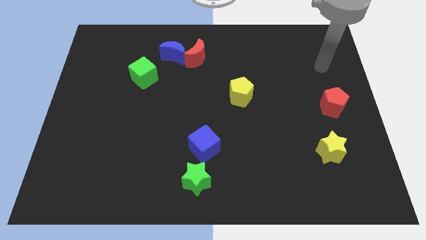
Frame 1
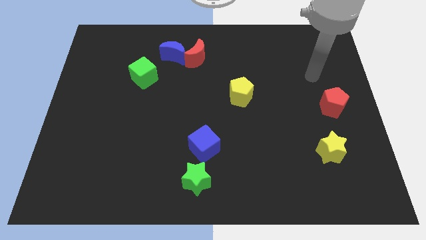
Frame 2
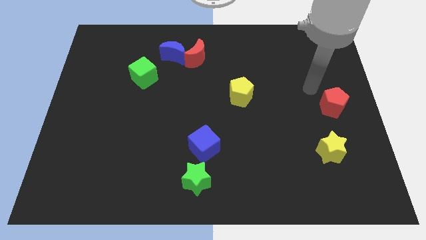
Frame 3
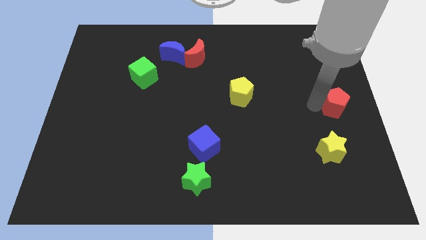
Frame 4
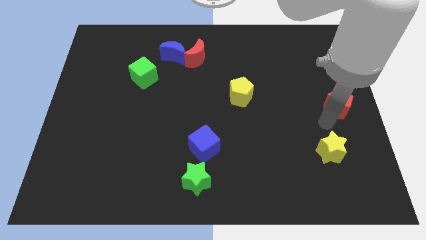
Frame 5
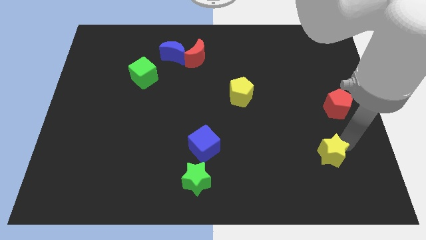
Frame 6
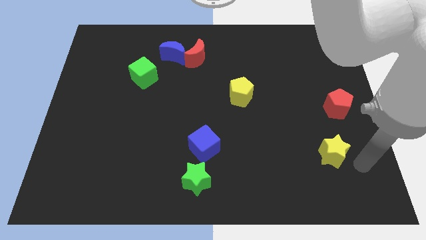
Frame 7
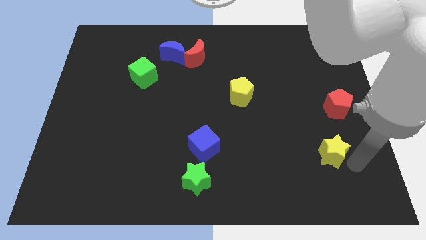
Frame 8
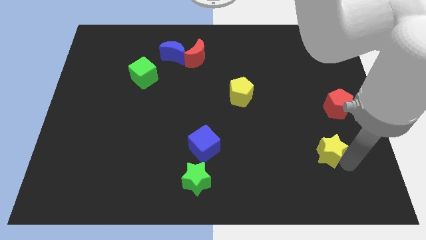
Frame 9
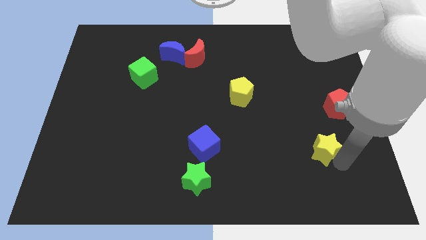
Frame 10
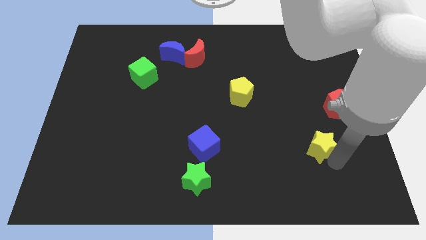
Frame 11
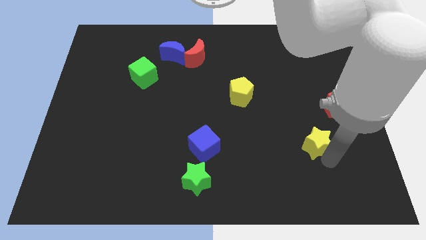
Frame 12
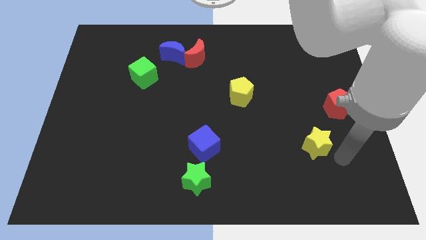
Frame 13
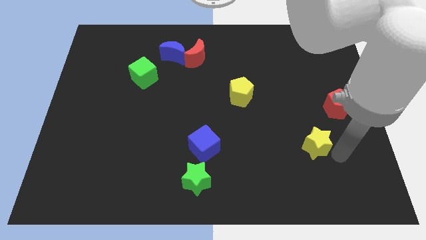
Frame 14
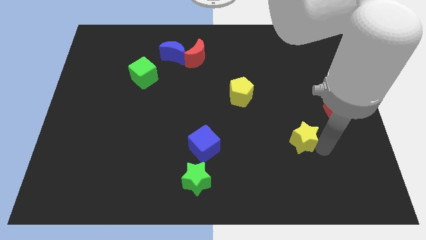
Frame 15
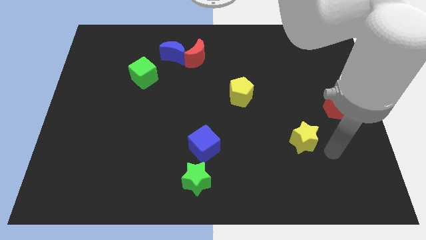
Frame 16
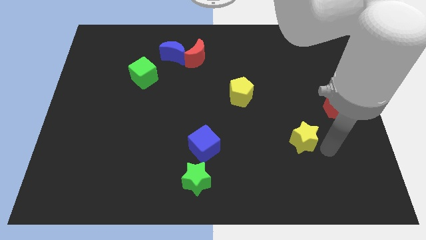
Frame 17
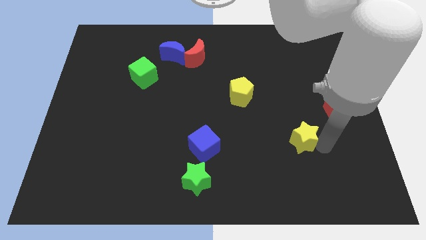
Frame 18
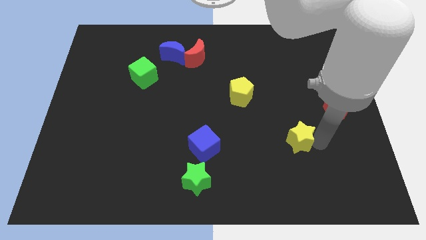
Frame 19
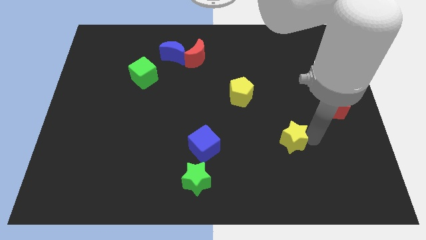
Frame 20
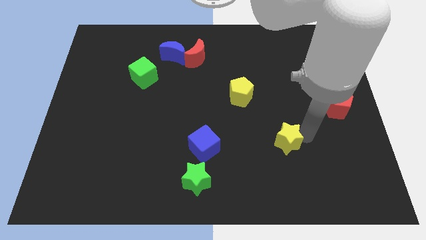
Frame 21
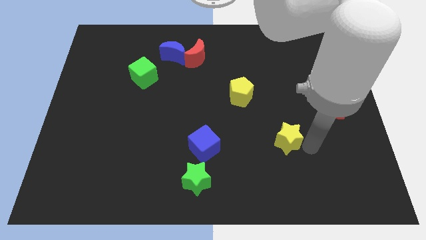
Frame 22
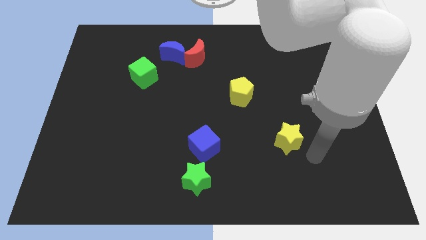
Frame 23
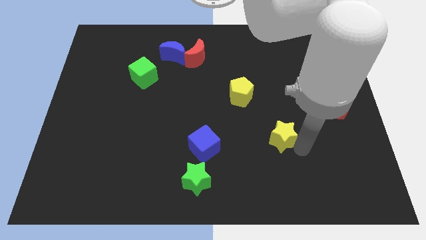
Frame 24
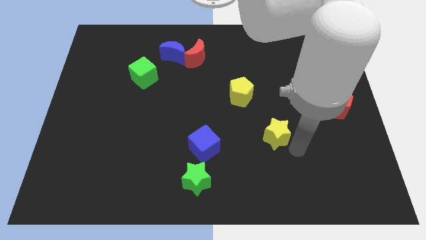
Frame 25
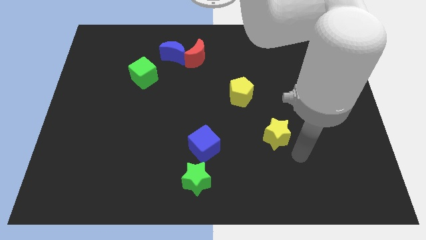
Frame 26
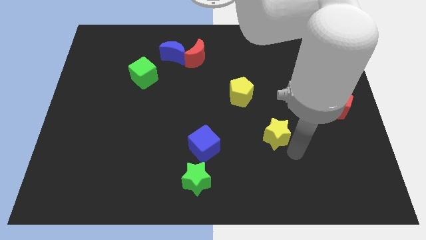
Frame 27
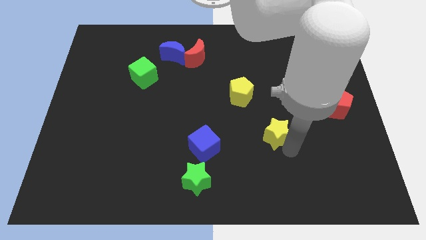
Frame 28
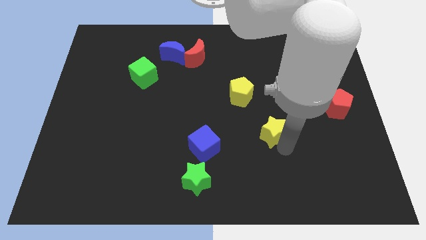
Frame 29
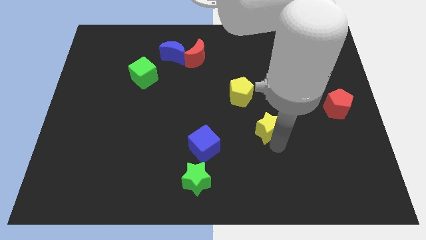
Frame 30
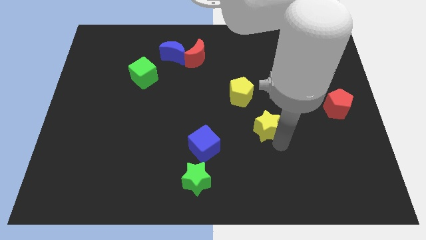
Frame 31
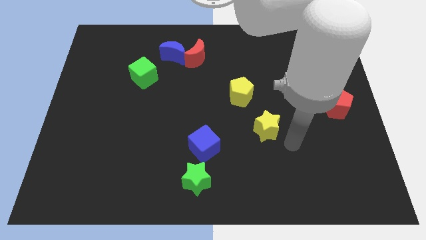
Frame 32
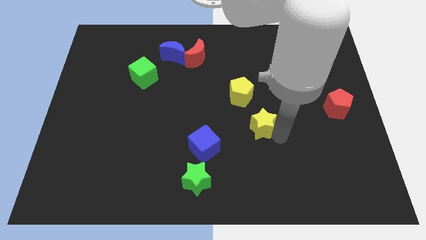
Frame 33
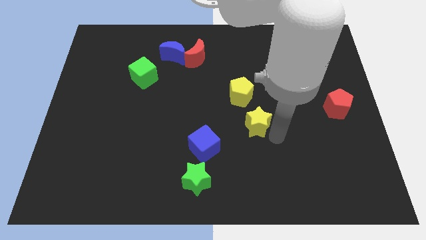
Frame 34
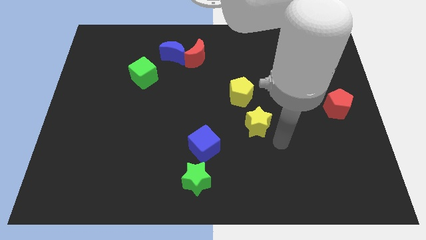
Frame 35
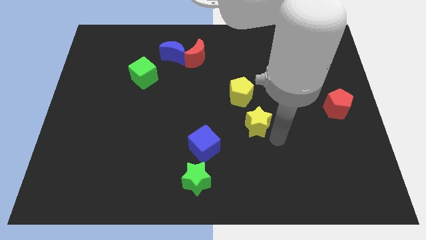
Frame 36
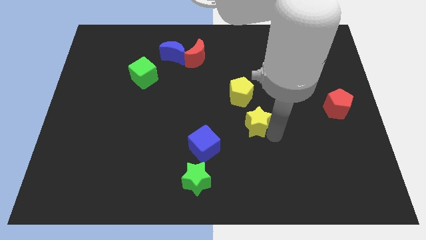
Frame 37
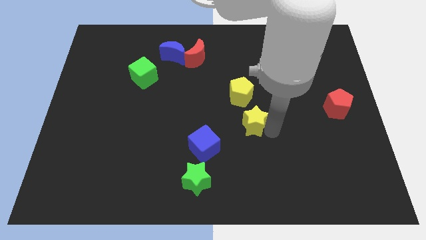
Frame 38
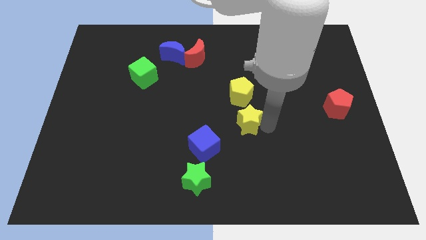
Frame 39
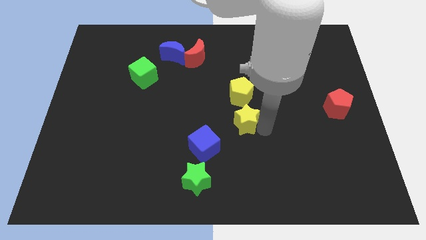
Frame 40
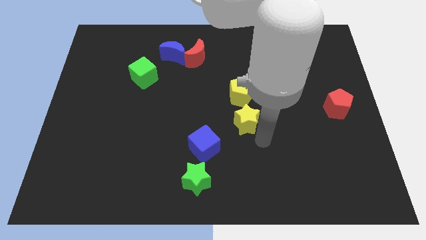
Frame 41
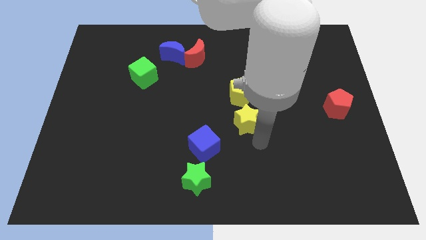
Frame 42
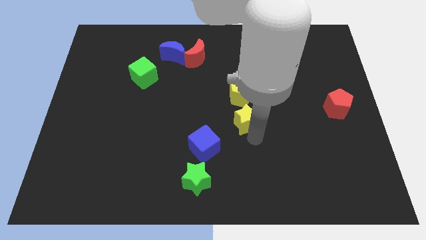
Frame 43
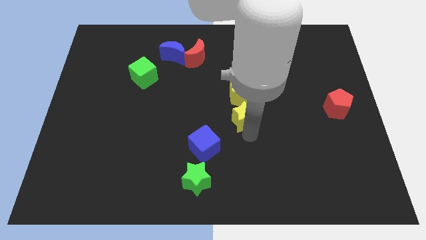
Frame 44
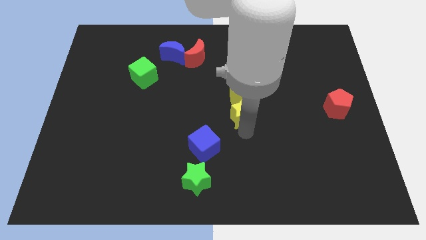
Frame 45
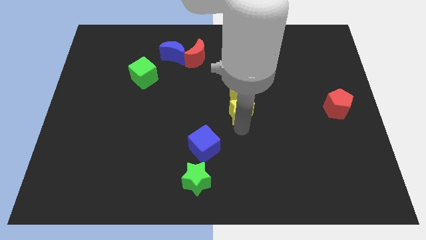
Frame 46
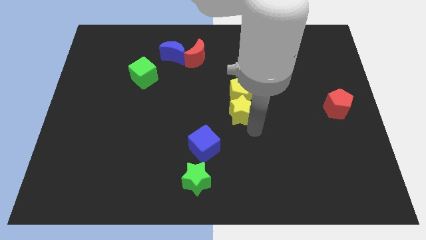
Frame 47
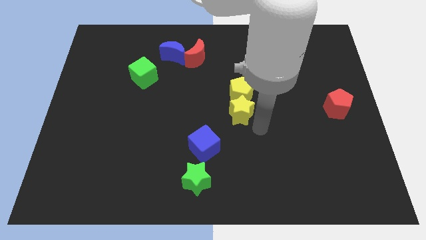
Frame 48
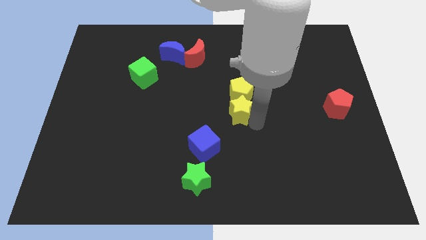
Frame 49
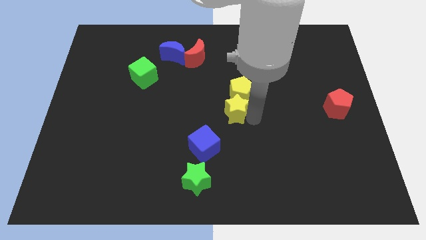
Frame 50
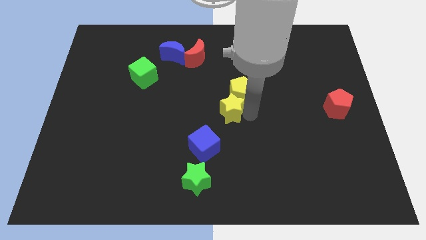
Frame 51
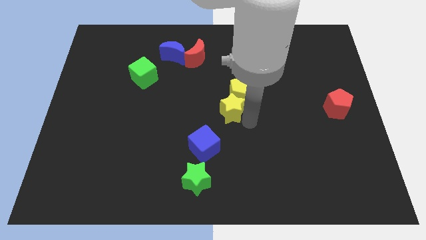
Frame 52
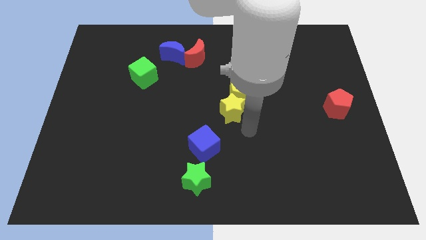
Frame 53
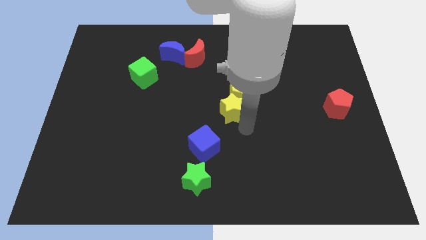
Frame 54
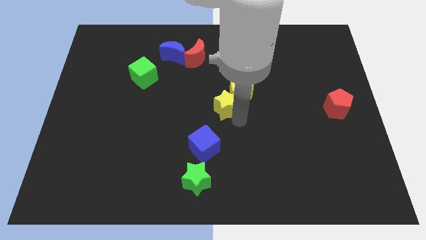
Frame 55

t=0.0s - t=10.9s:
slide the yellow star to the left side of the yellow pentagon
